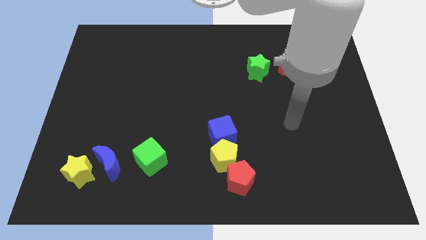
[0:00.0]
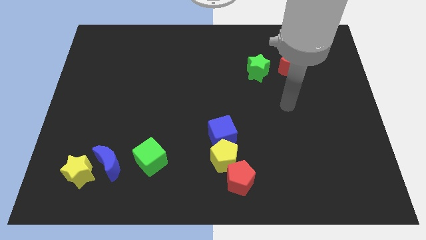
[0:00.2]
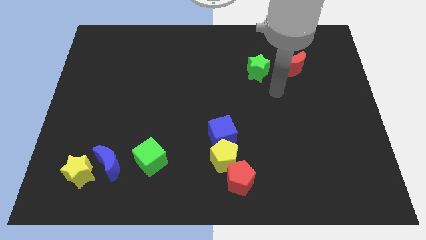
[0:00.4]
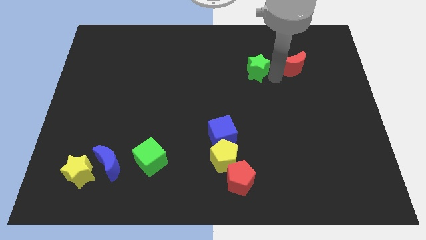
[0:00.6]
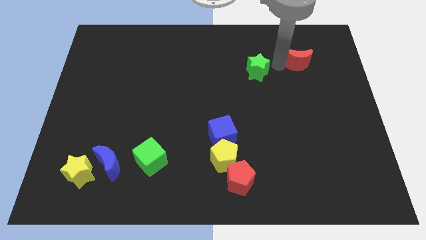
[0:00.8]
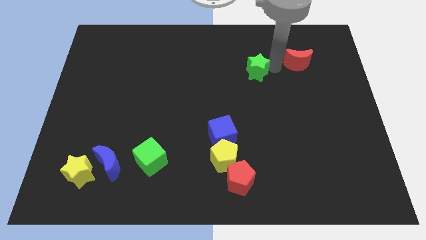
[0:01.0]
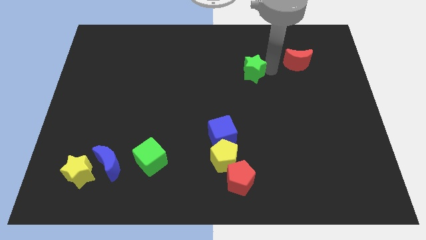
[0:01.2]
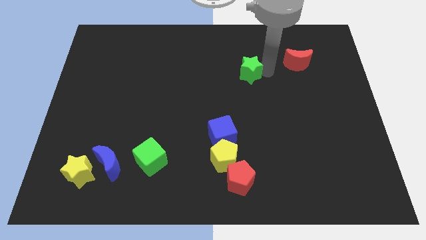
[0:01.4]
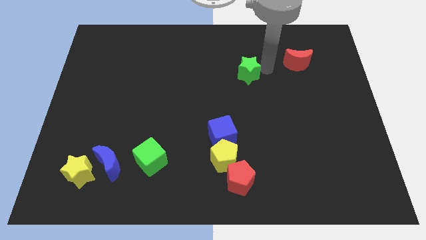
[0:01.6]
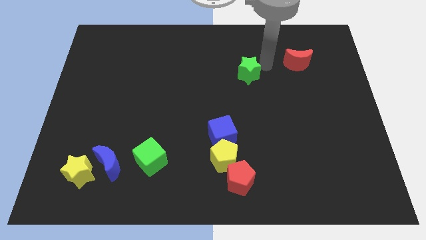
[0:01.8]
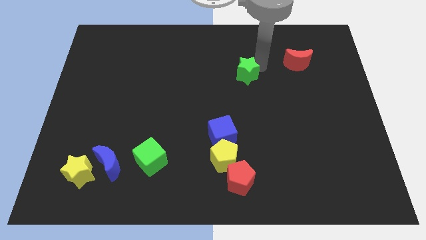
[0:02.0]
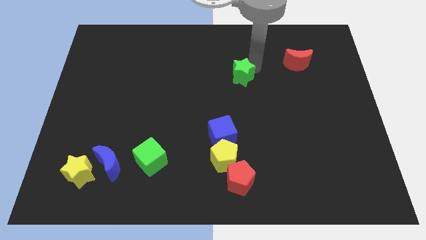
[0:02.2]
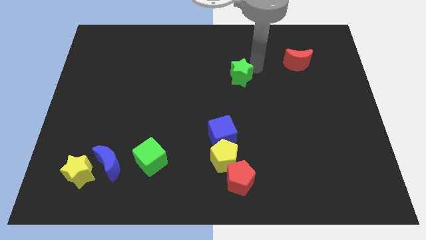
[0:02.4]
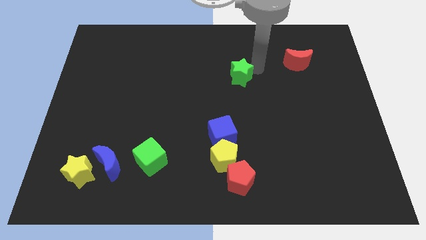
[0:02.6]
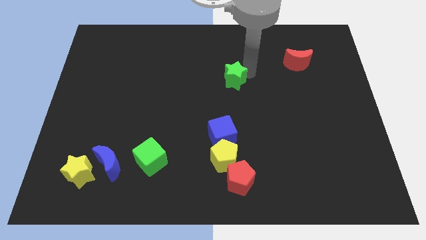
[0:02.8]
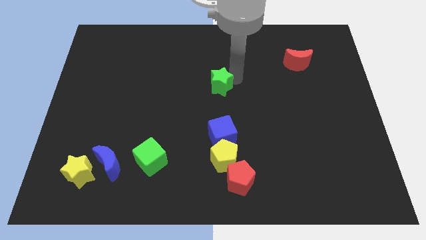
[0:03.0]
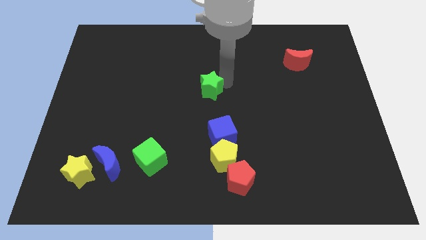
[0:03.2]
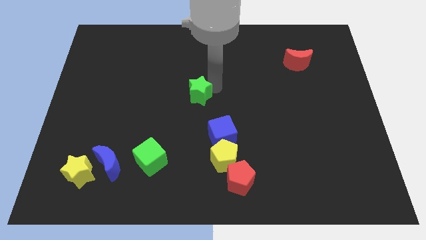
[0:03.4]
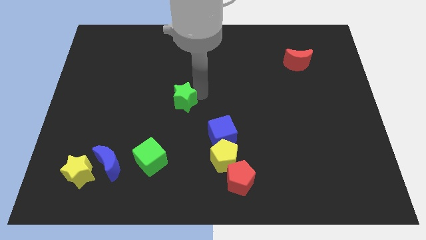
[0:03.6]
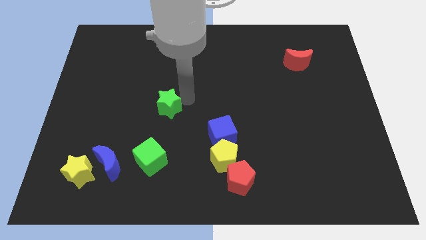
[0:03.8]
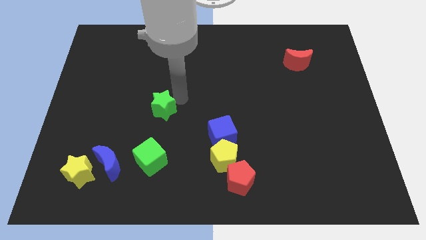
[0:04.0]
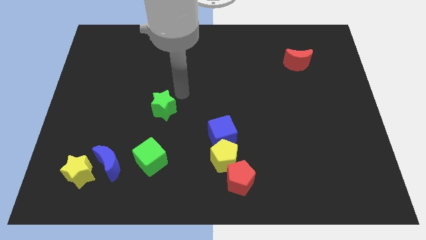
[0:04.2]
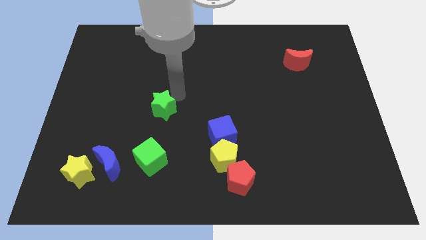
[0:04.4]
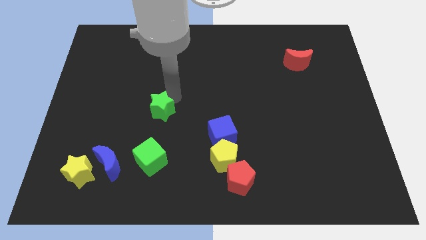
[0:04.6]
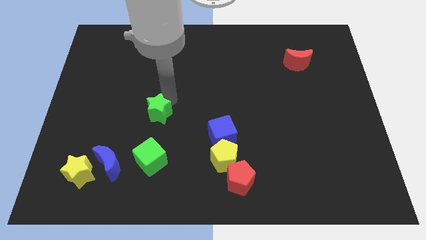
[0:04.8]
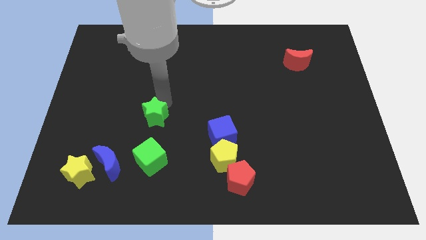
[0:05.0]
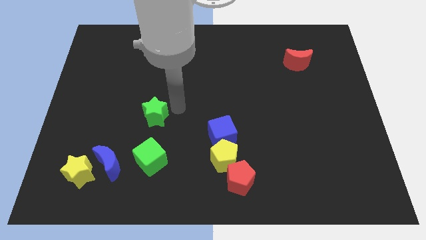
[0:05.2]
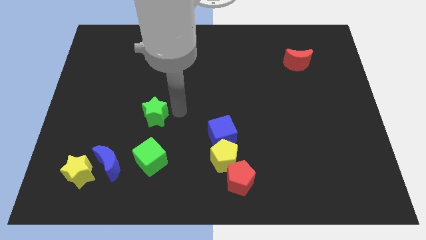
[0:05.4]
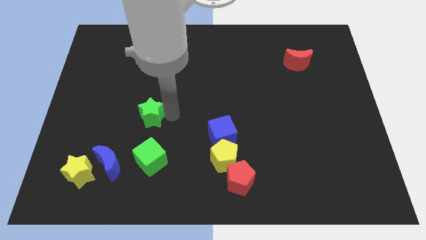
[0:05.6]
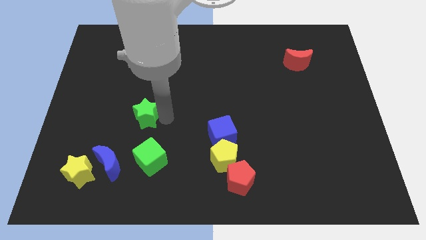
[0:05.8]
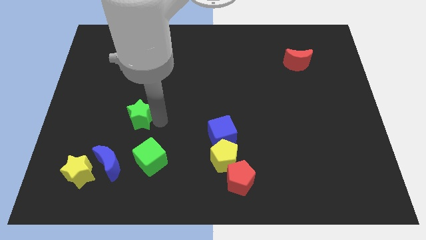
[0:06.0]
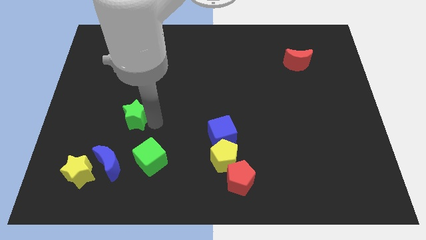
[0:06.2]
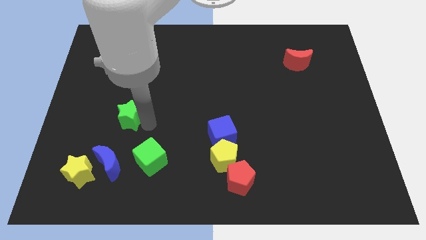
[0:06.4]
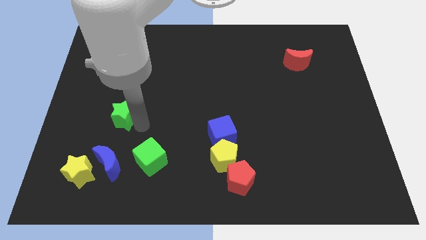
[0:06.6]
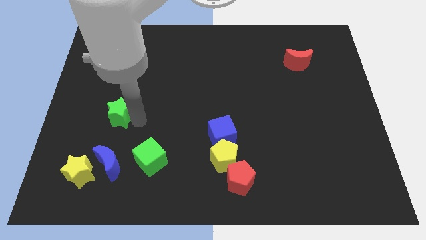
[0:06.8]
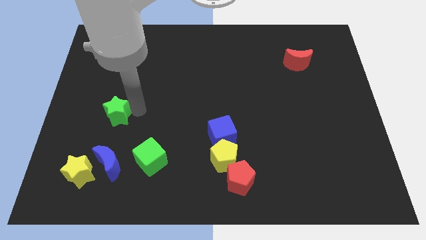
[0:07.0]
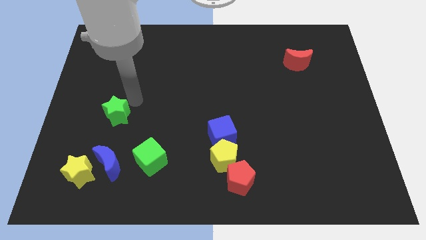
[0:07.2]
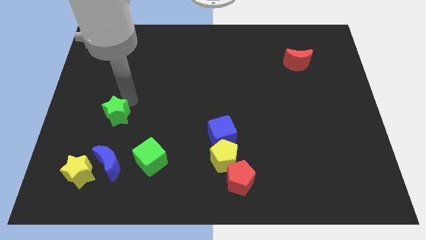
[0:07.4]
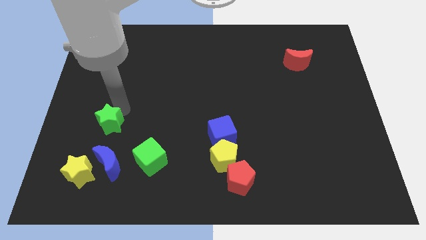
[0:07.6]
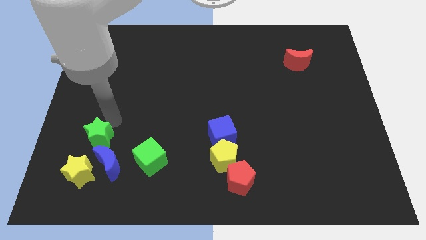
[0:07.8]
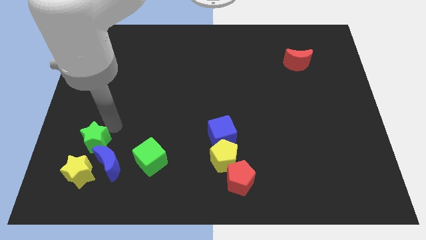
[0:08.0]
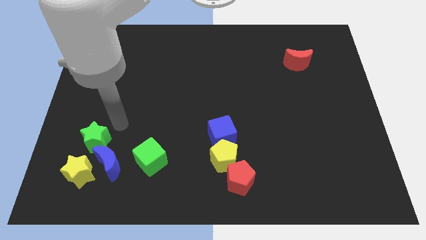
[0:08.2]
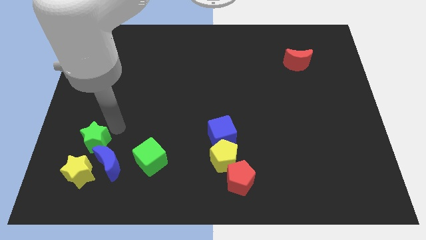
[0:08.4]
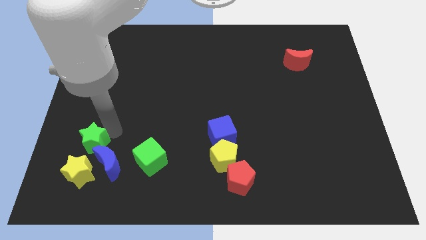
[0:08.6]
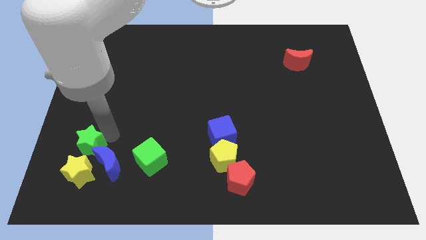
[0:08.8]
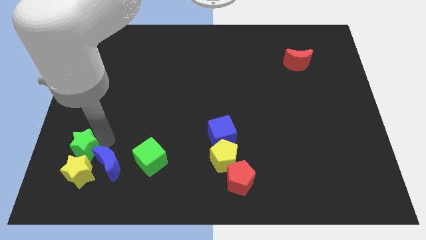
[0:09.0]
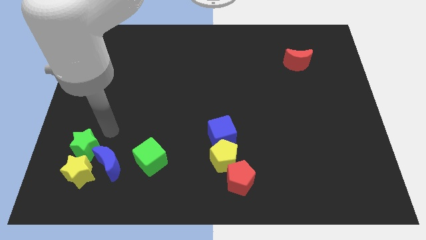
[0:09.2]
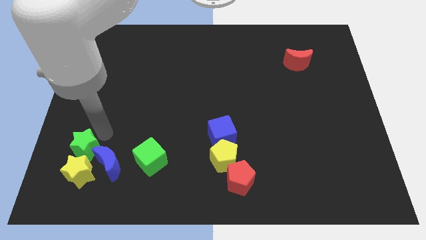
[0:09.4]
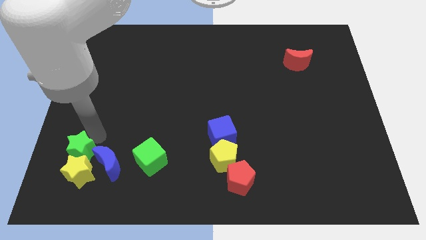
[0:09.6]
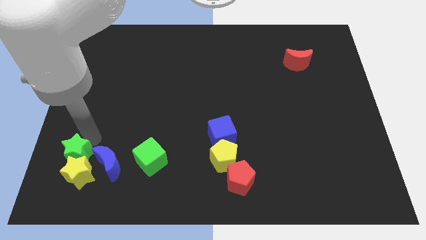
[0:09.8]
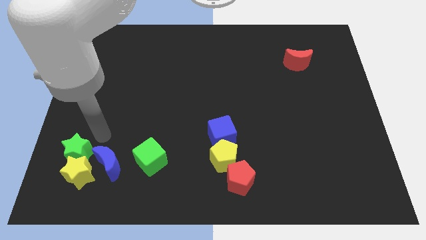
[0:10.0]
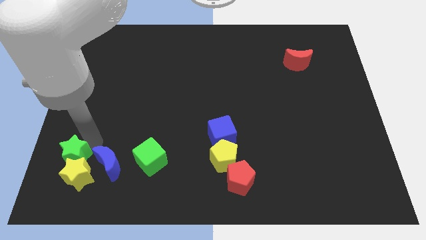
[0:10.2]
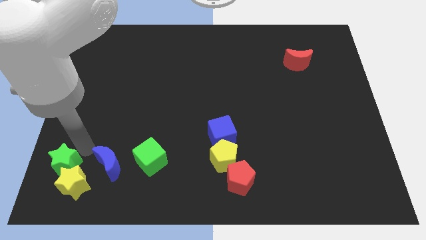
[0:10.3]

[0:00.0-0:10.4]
push the green star to the bottom left of the board
